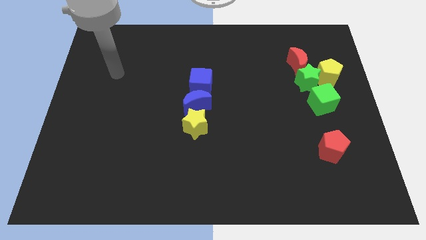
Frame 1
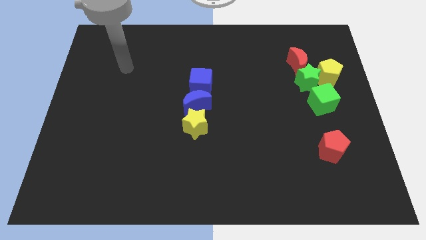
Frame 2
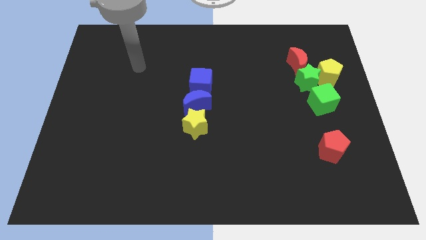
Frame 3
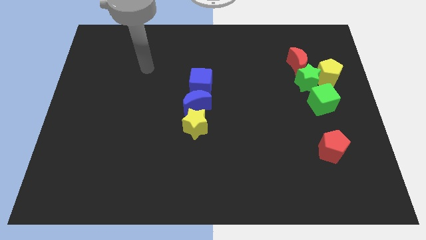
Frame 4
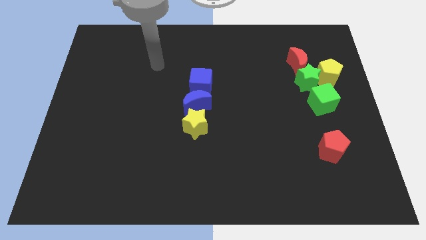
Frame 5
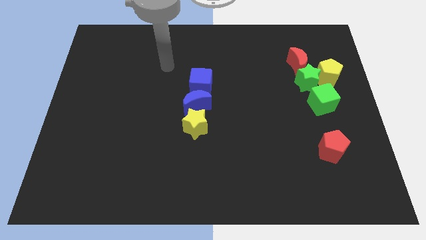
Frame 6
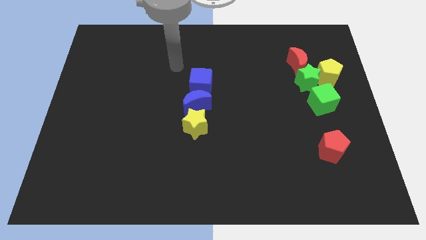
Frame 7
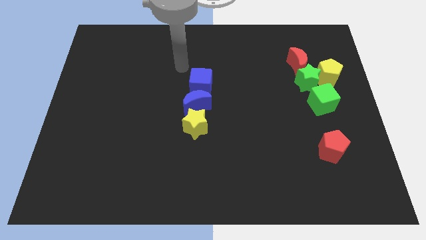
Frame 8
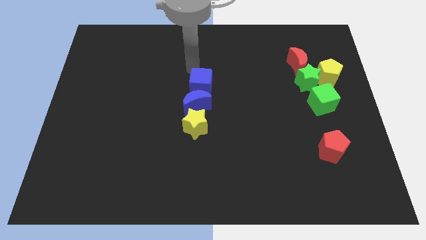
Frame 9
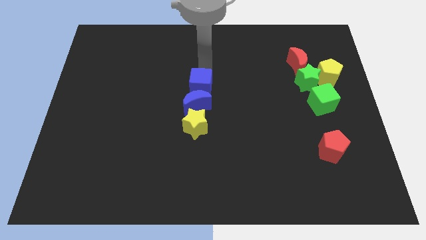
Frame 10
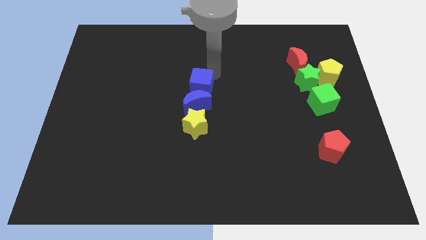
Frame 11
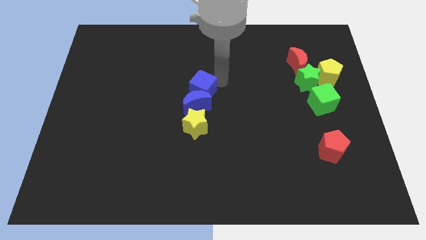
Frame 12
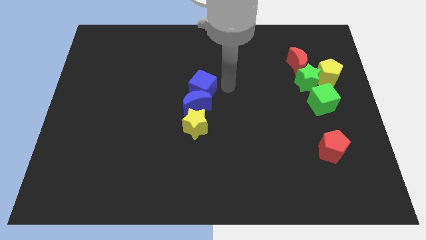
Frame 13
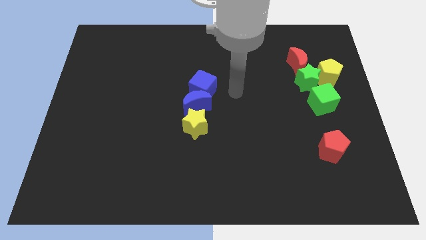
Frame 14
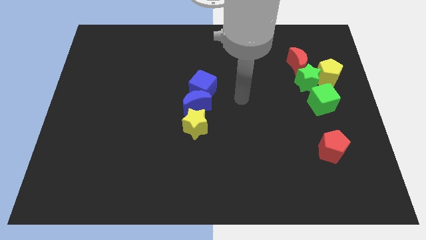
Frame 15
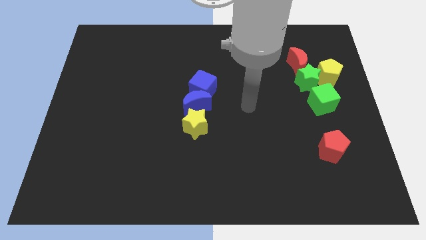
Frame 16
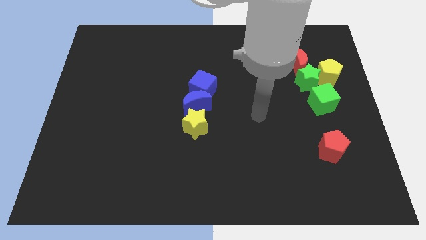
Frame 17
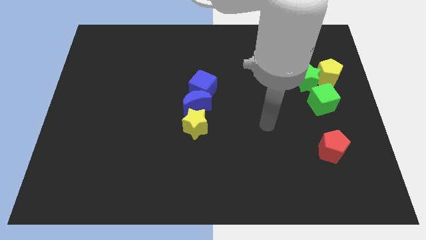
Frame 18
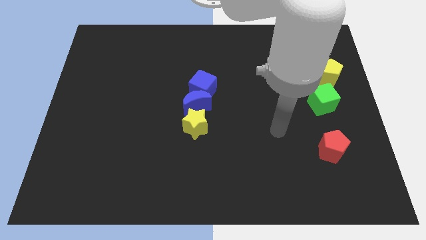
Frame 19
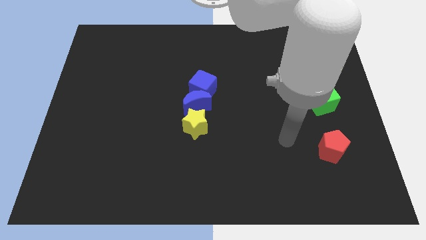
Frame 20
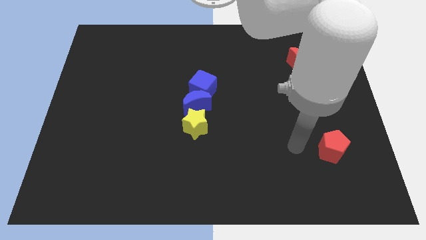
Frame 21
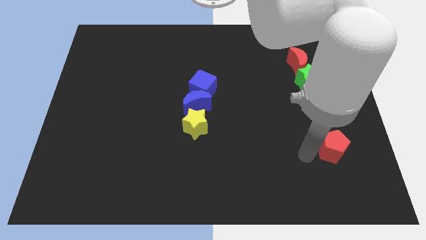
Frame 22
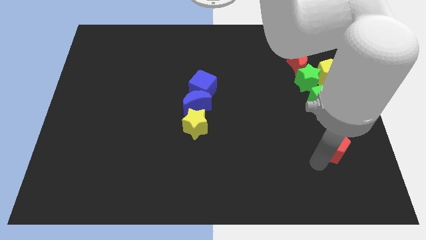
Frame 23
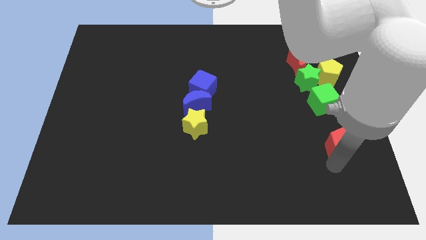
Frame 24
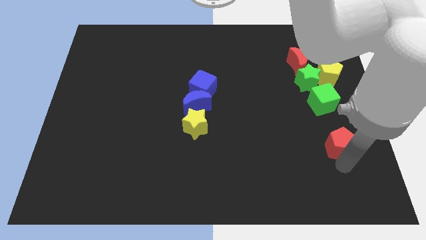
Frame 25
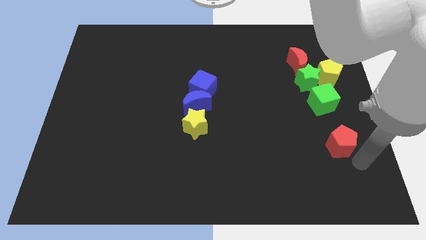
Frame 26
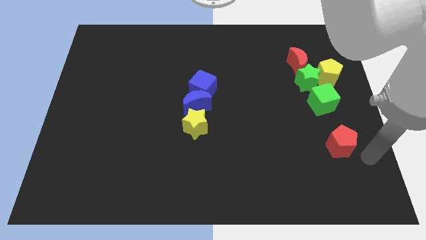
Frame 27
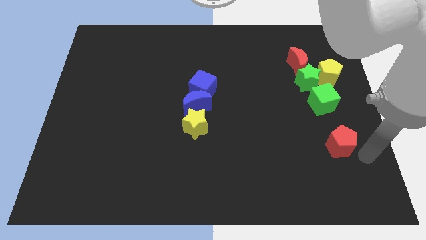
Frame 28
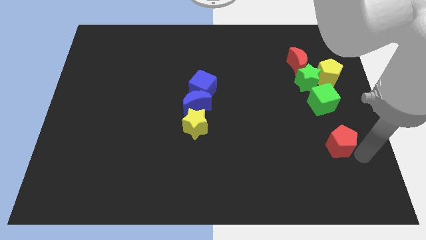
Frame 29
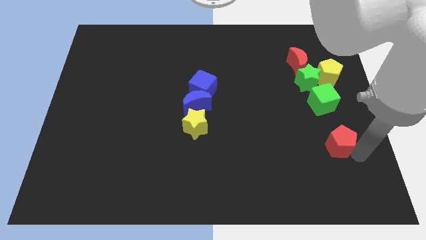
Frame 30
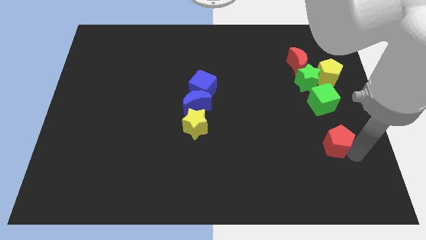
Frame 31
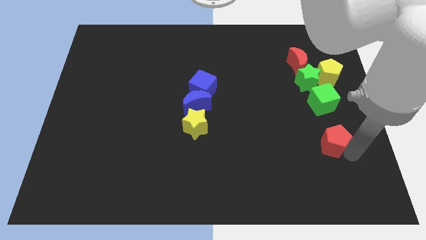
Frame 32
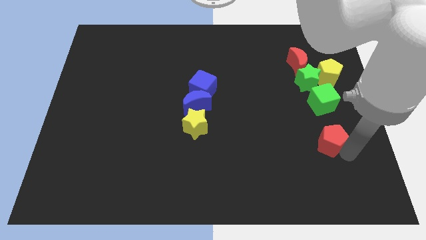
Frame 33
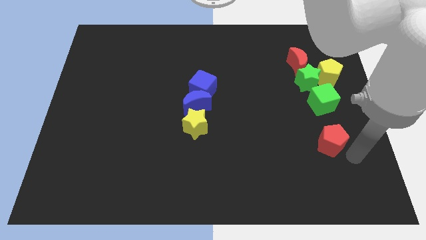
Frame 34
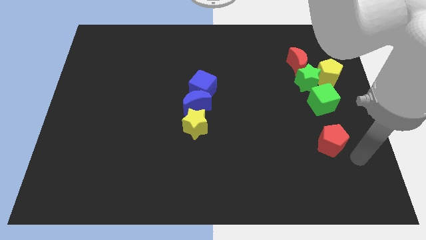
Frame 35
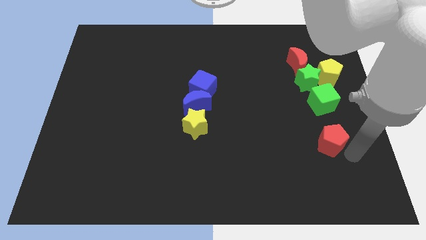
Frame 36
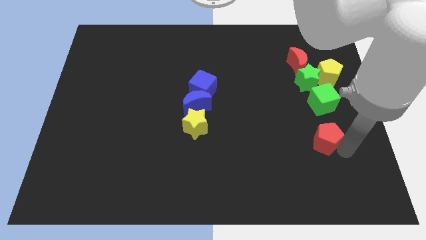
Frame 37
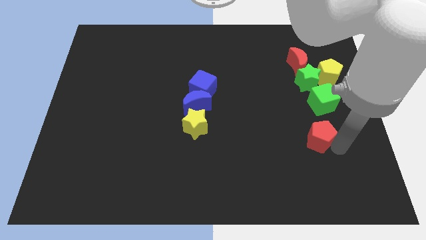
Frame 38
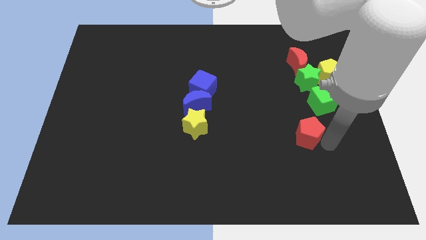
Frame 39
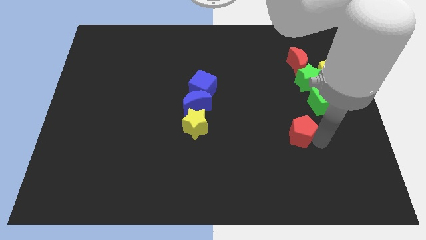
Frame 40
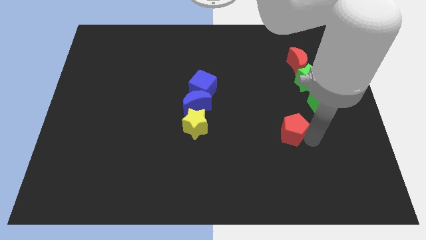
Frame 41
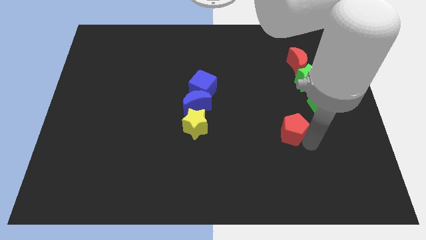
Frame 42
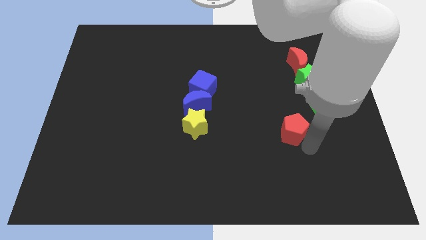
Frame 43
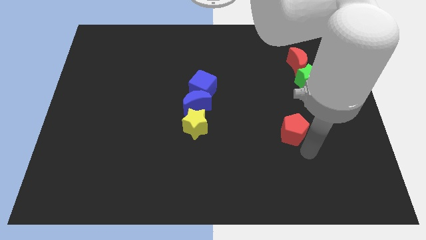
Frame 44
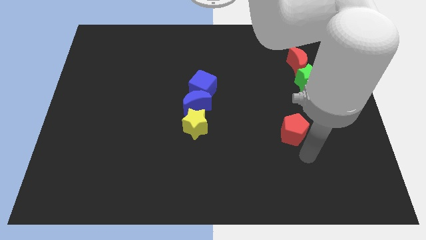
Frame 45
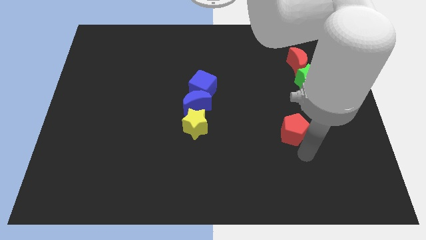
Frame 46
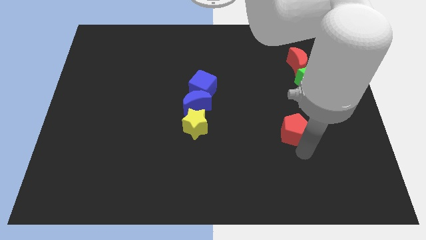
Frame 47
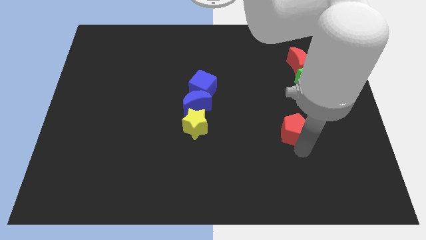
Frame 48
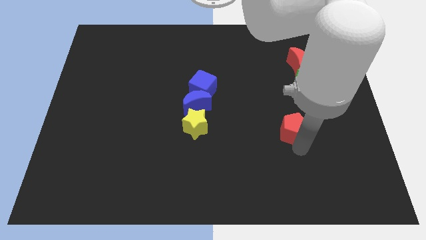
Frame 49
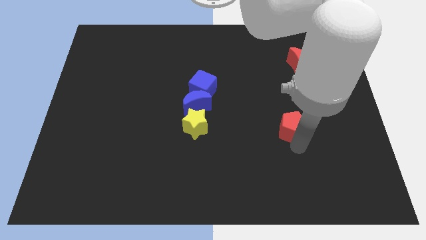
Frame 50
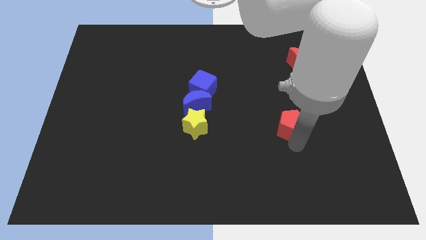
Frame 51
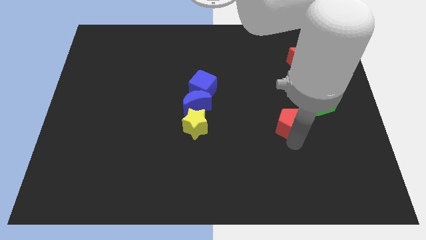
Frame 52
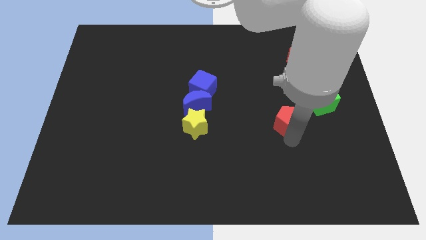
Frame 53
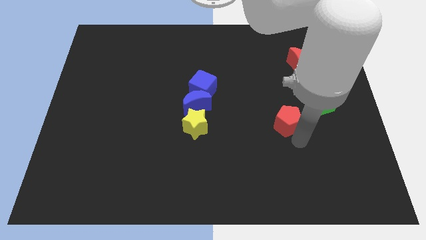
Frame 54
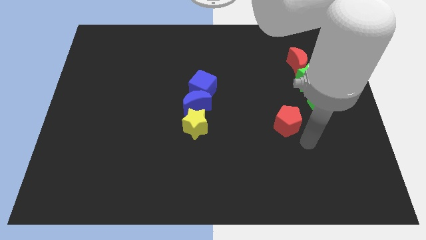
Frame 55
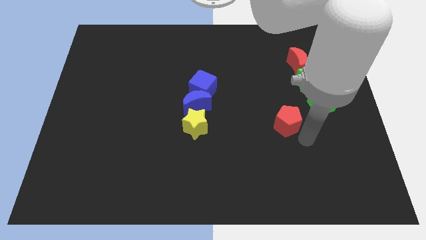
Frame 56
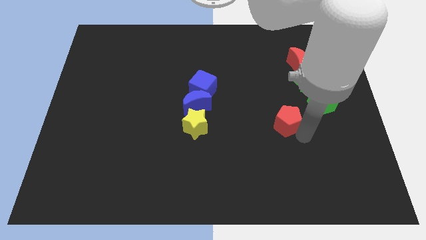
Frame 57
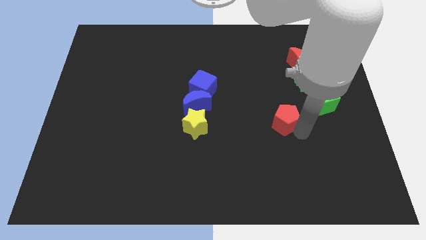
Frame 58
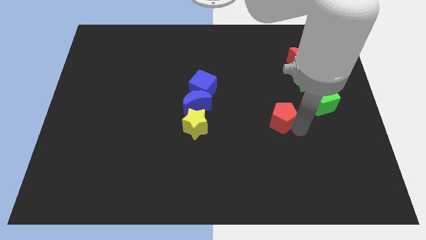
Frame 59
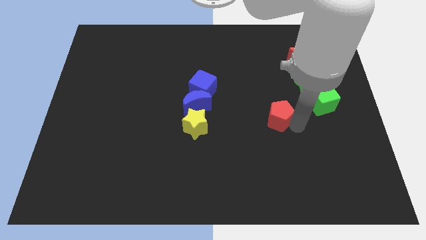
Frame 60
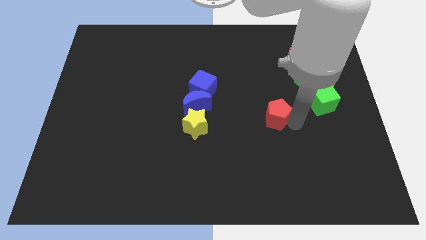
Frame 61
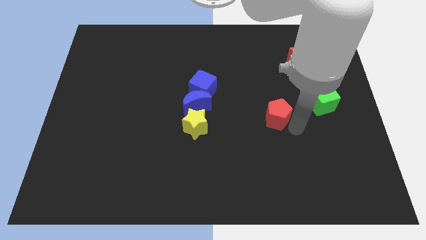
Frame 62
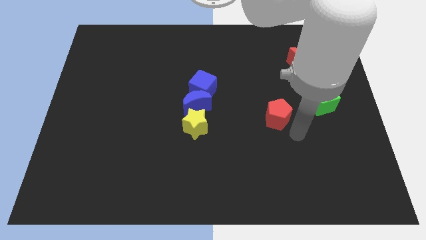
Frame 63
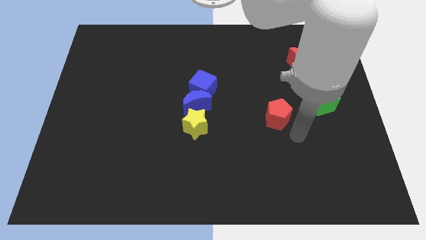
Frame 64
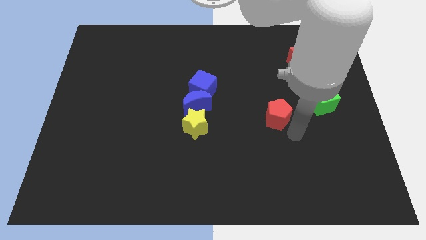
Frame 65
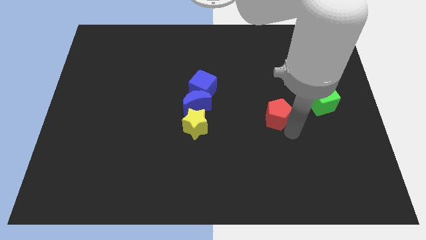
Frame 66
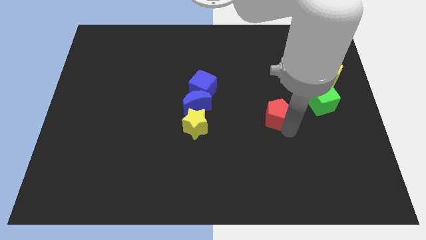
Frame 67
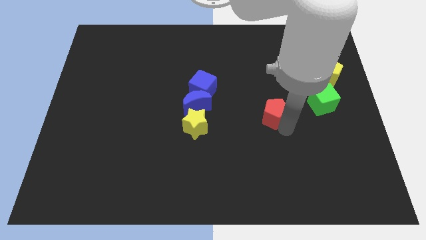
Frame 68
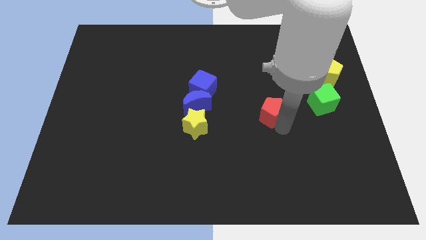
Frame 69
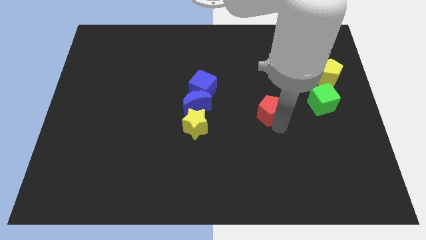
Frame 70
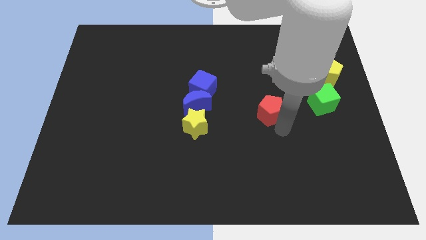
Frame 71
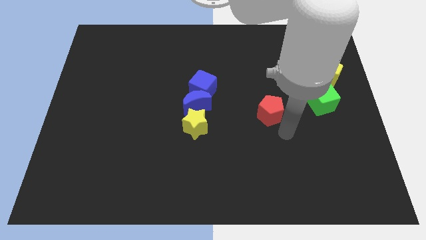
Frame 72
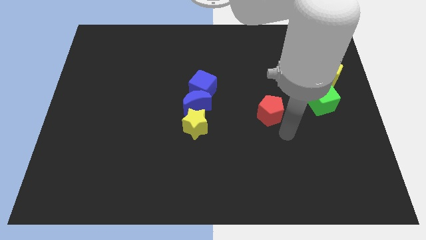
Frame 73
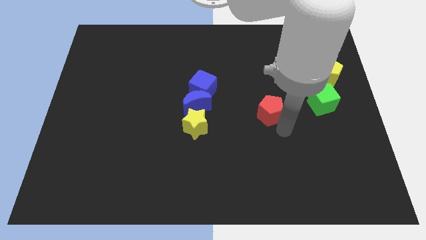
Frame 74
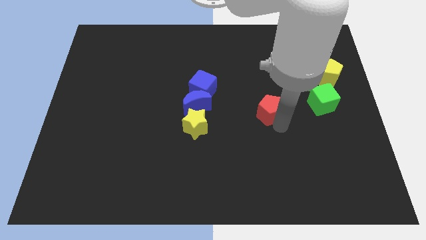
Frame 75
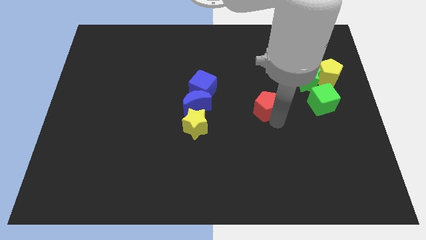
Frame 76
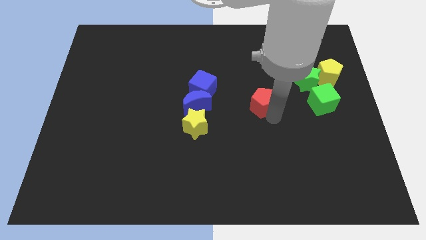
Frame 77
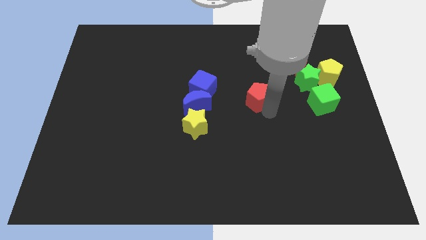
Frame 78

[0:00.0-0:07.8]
move the red pentagon upwards and left

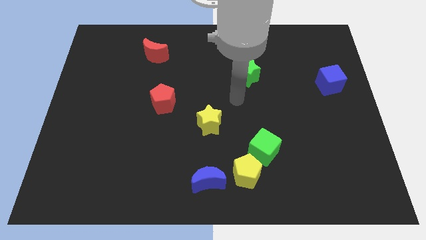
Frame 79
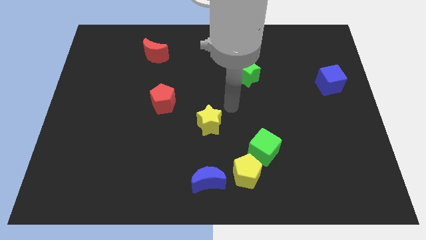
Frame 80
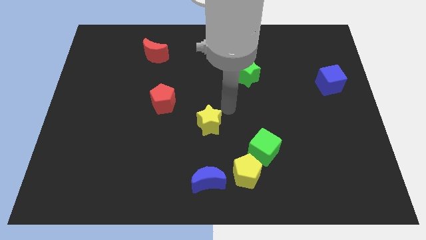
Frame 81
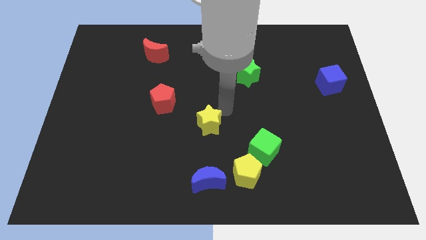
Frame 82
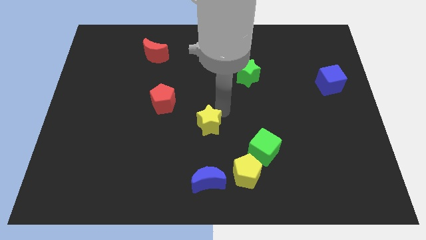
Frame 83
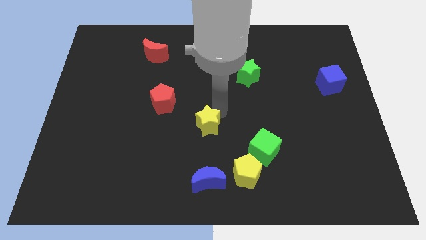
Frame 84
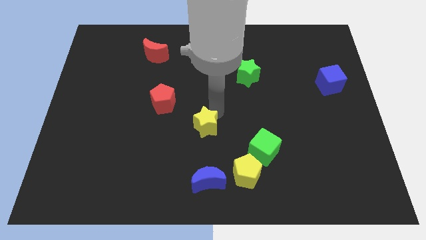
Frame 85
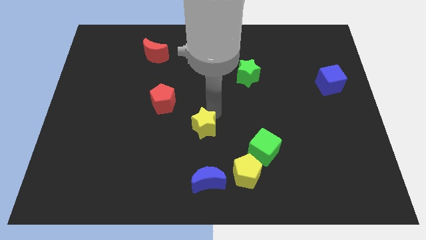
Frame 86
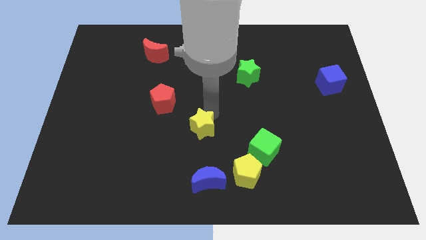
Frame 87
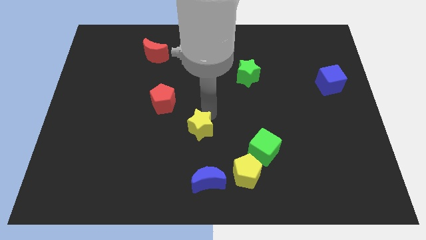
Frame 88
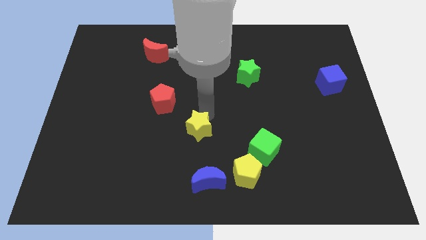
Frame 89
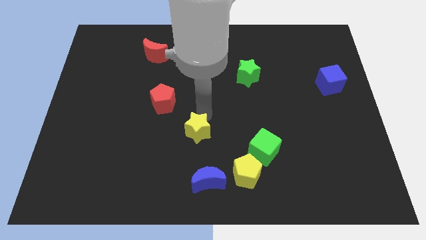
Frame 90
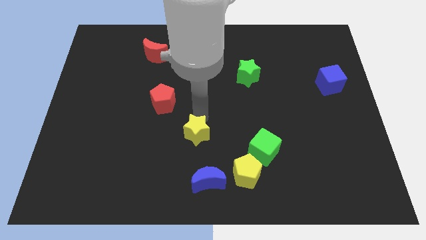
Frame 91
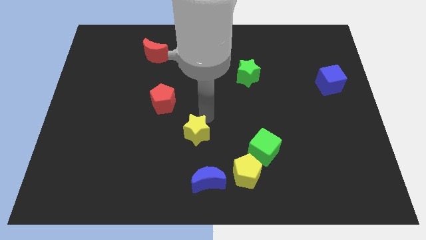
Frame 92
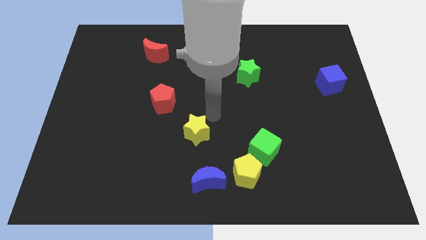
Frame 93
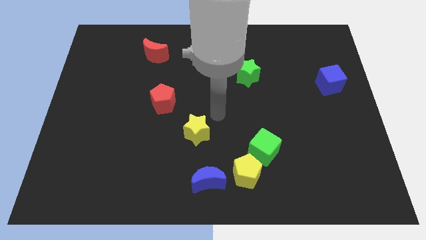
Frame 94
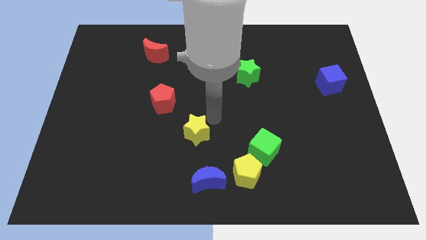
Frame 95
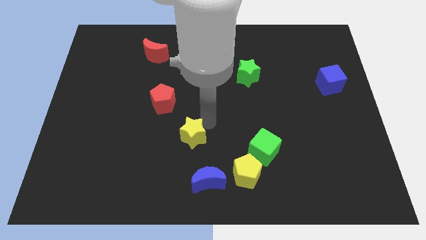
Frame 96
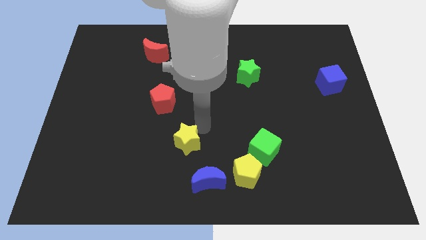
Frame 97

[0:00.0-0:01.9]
slightly slide the yellow star downwards and then left
